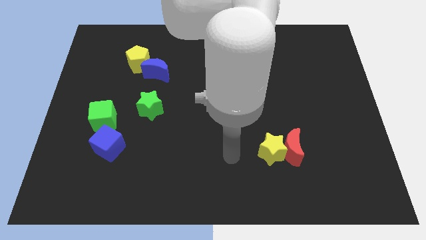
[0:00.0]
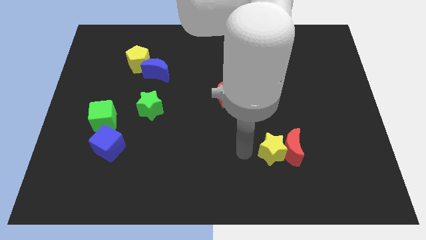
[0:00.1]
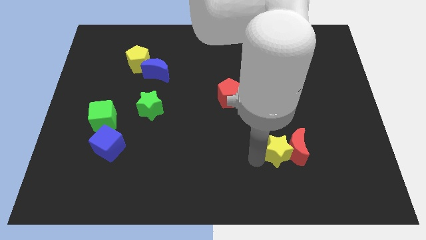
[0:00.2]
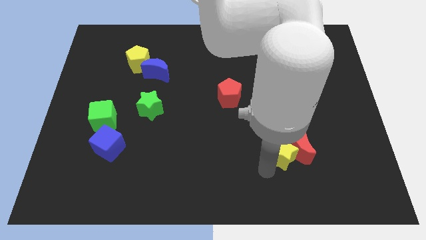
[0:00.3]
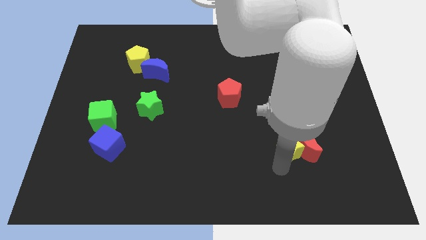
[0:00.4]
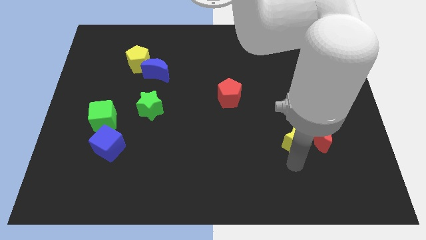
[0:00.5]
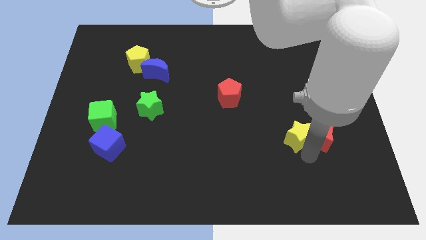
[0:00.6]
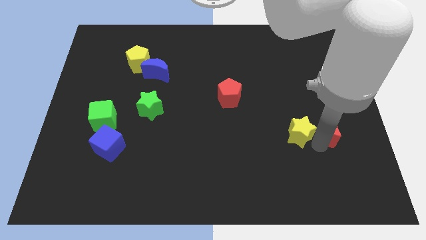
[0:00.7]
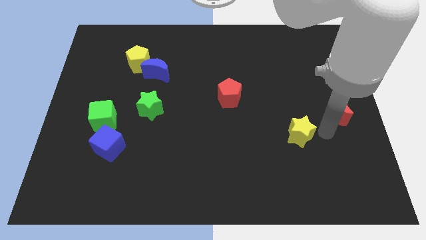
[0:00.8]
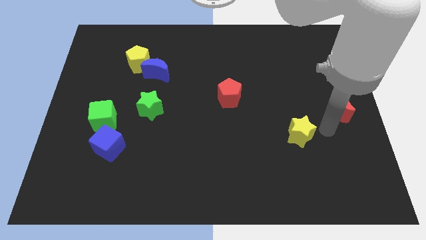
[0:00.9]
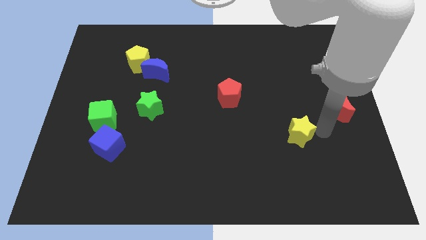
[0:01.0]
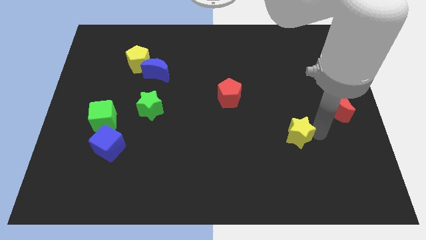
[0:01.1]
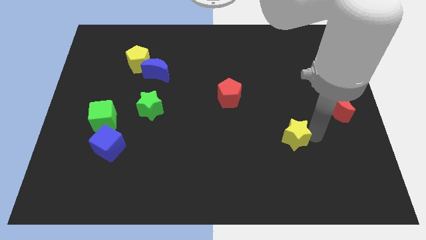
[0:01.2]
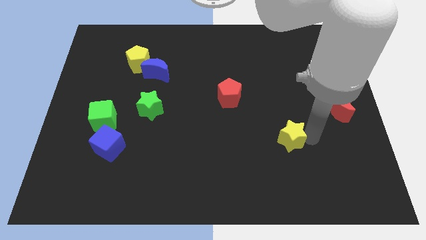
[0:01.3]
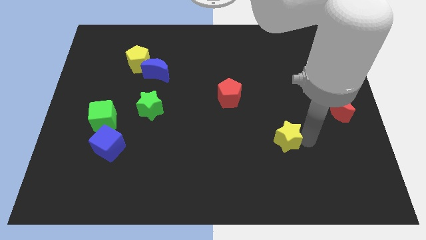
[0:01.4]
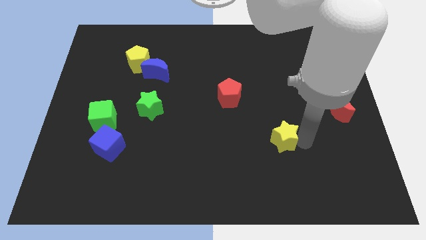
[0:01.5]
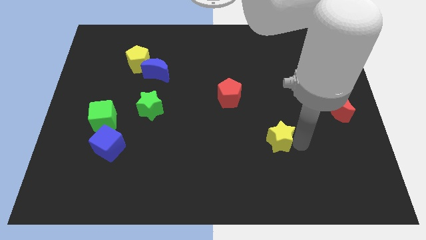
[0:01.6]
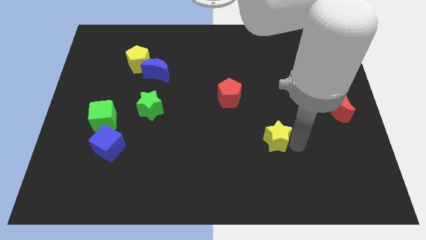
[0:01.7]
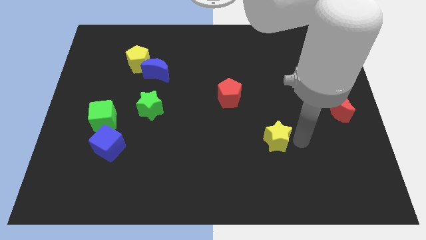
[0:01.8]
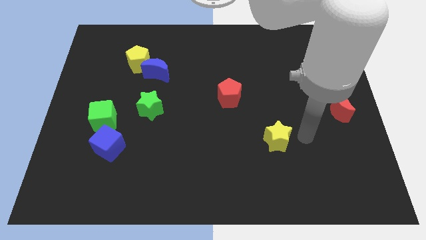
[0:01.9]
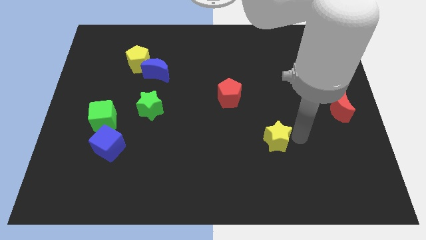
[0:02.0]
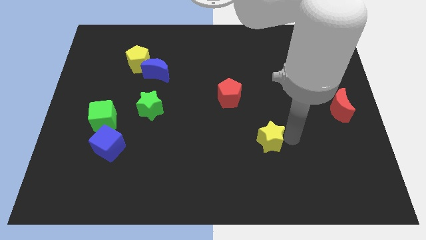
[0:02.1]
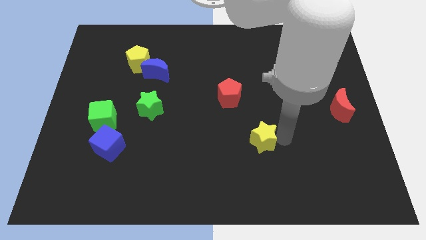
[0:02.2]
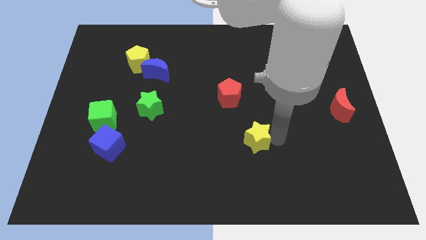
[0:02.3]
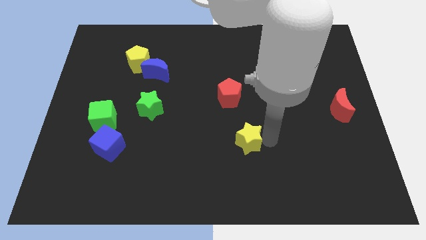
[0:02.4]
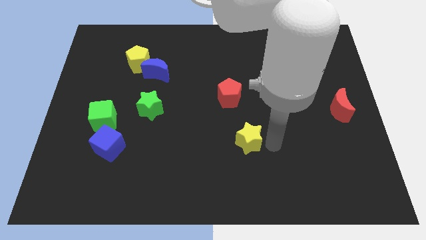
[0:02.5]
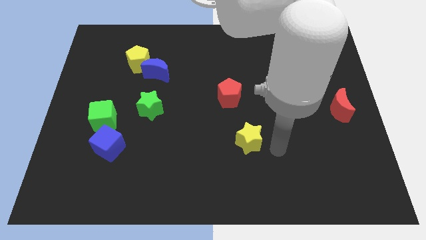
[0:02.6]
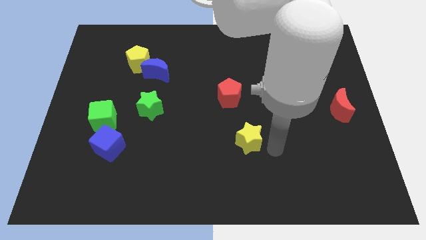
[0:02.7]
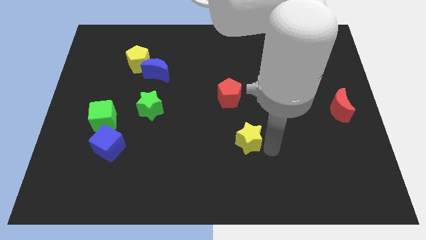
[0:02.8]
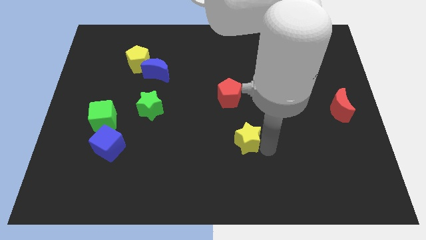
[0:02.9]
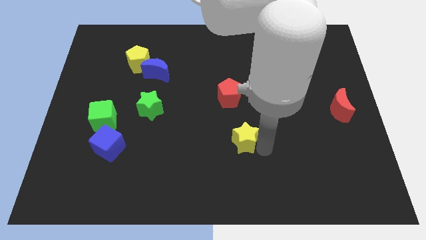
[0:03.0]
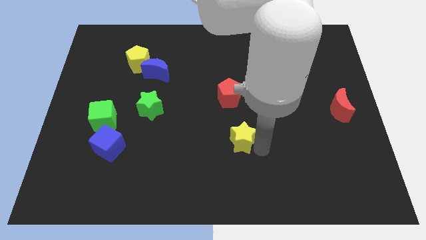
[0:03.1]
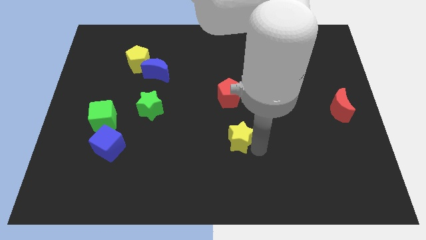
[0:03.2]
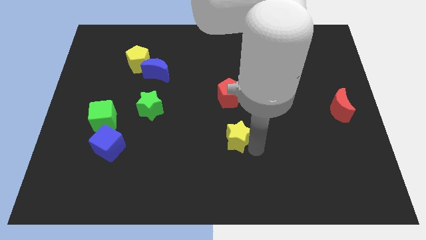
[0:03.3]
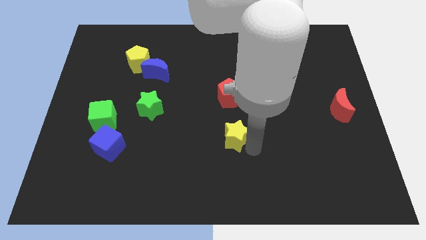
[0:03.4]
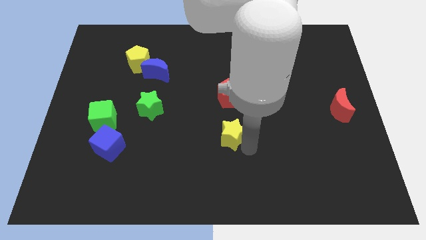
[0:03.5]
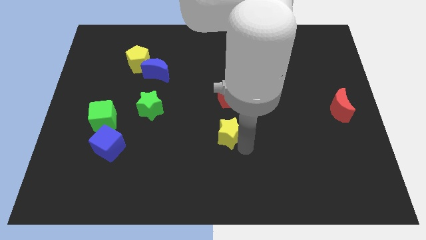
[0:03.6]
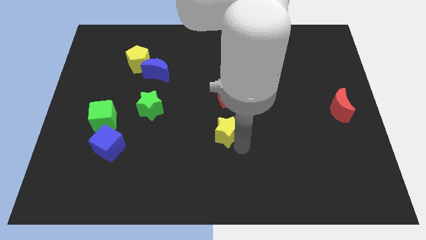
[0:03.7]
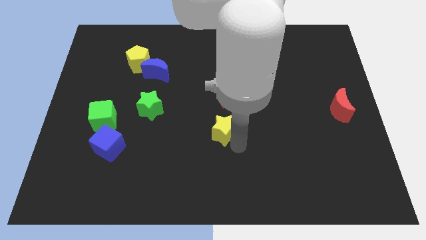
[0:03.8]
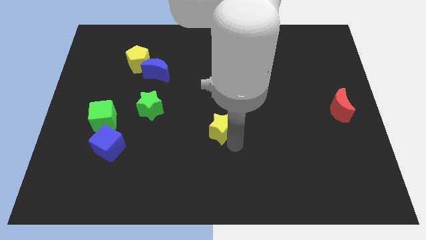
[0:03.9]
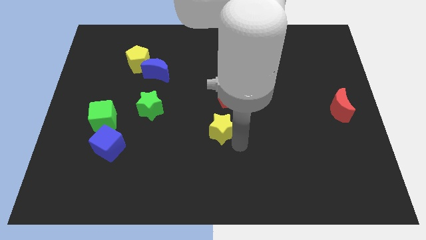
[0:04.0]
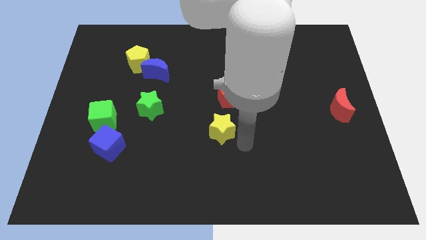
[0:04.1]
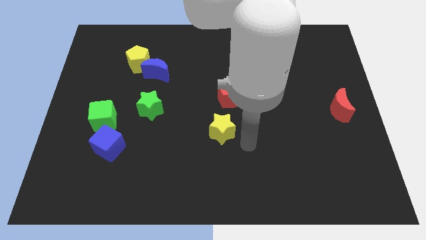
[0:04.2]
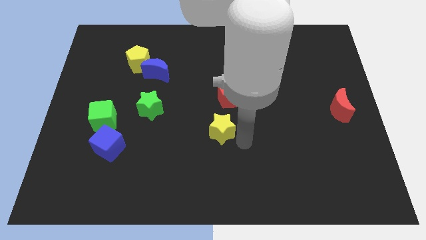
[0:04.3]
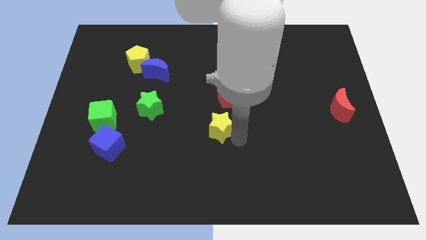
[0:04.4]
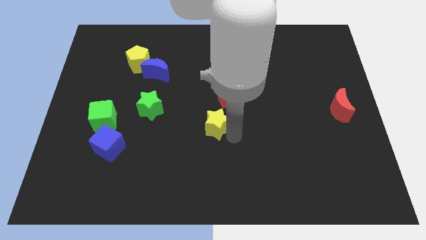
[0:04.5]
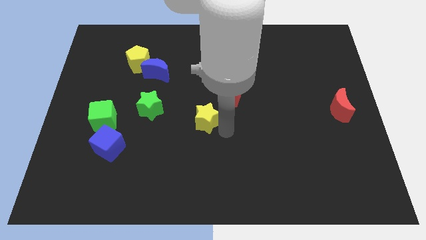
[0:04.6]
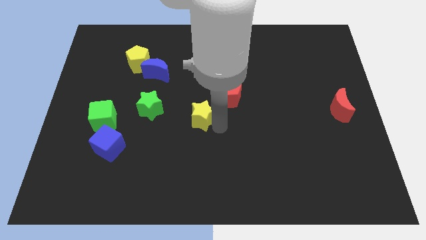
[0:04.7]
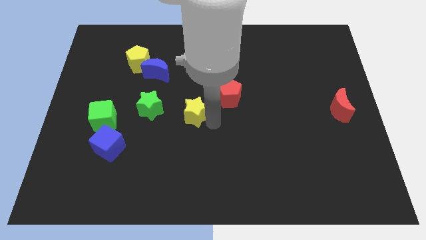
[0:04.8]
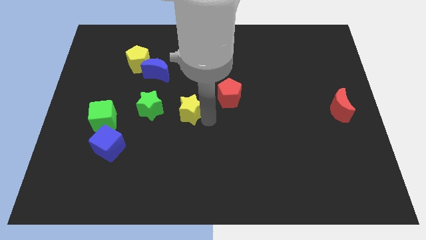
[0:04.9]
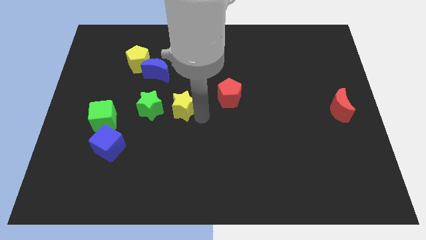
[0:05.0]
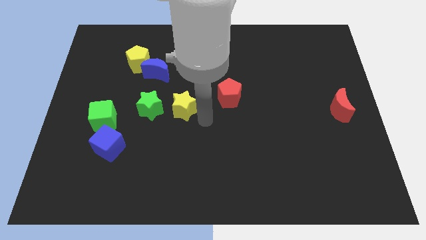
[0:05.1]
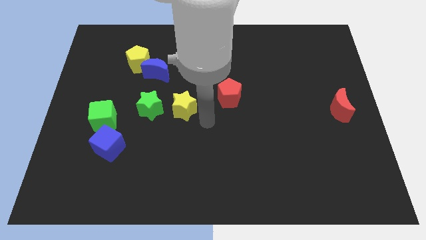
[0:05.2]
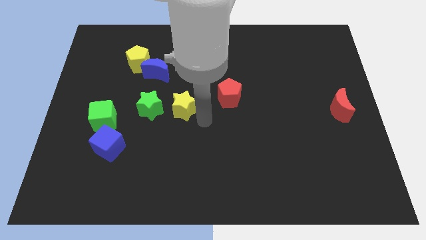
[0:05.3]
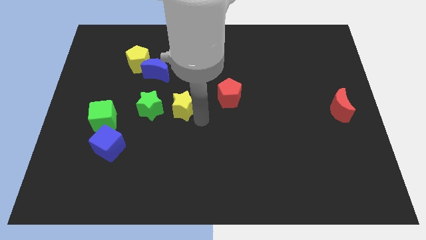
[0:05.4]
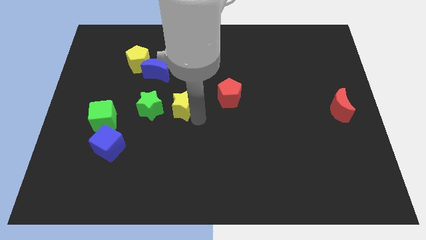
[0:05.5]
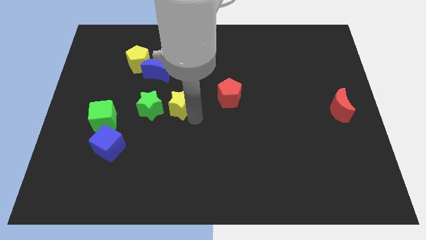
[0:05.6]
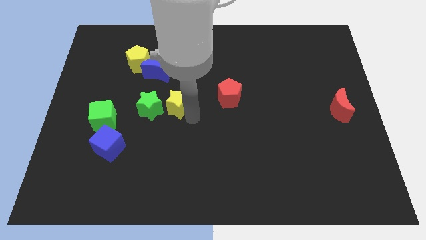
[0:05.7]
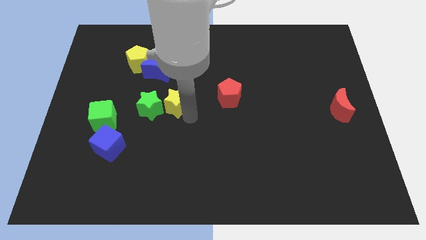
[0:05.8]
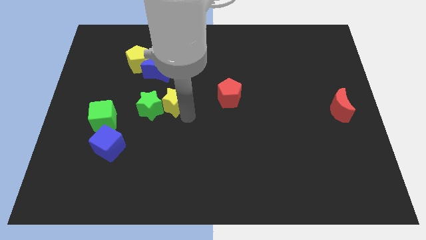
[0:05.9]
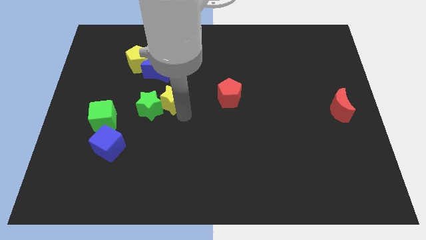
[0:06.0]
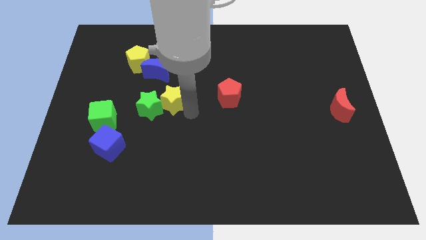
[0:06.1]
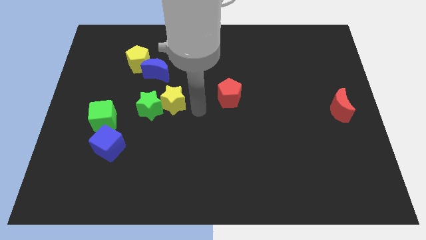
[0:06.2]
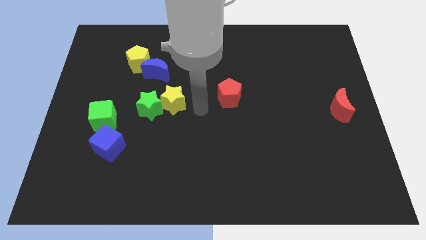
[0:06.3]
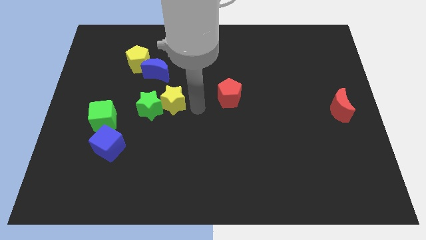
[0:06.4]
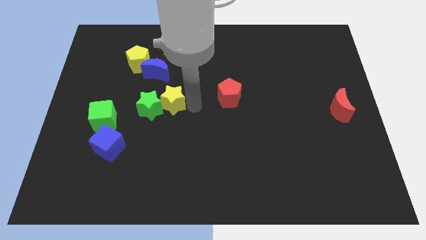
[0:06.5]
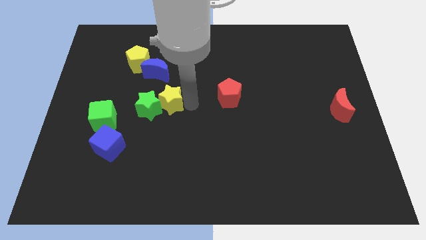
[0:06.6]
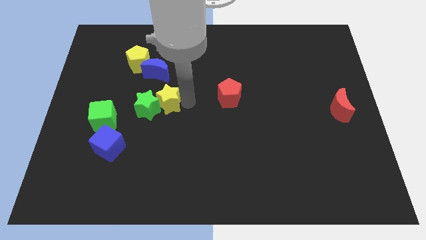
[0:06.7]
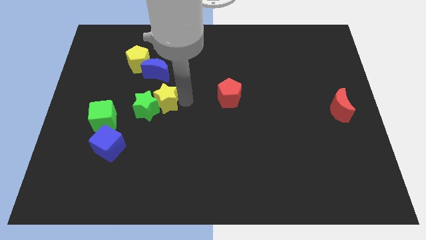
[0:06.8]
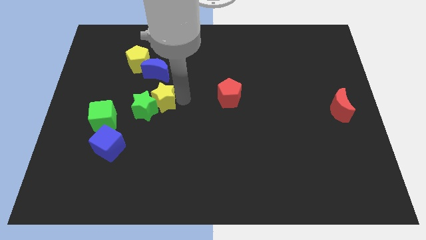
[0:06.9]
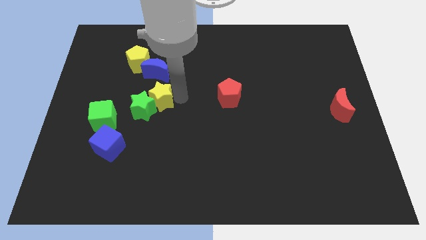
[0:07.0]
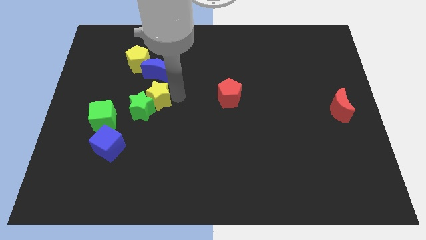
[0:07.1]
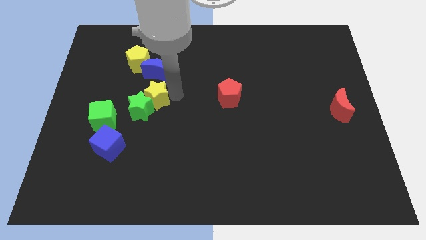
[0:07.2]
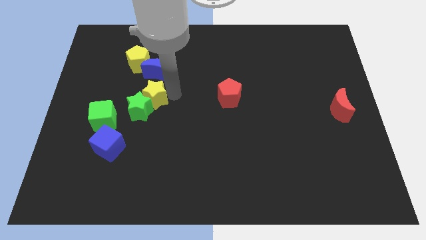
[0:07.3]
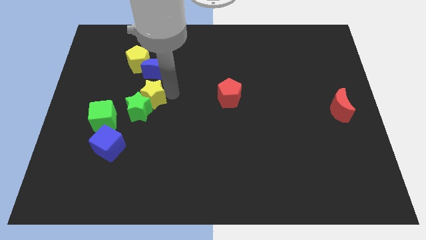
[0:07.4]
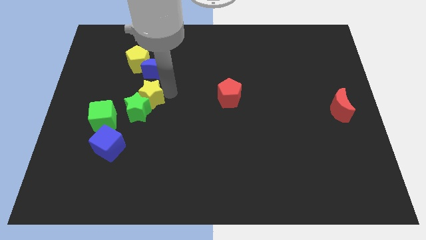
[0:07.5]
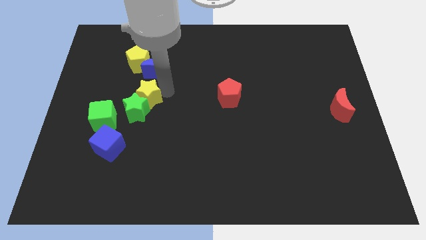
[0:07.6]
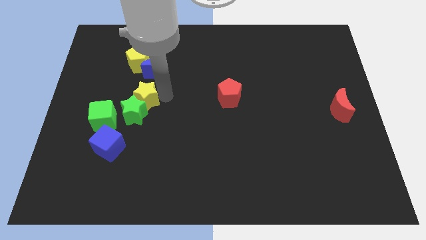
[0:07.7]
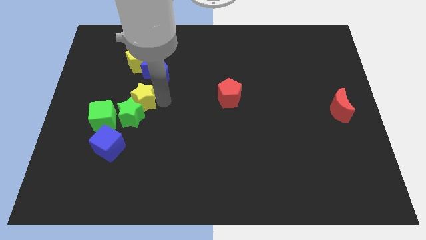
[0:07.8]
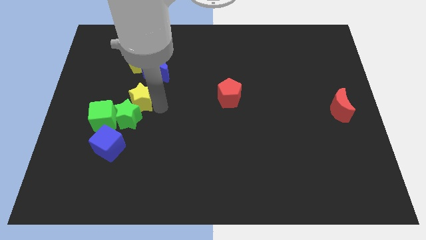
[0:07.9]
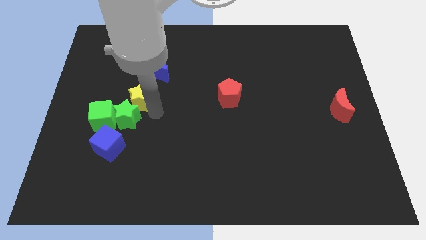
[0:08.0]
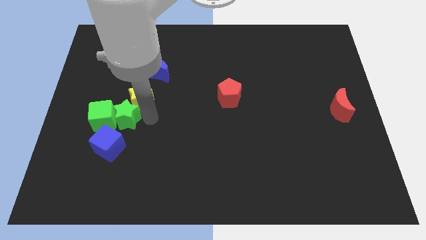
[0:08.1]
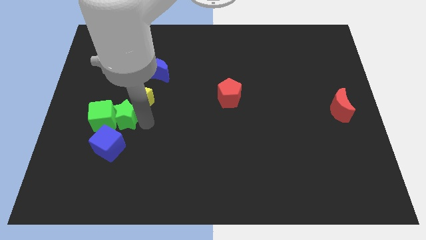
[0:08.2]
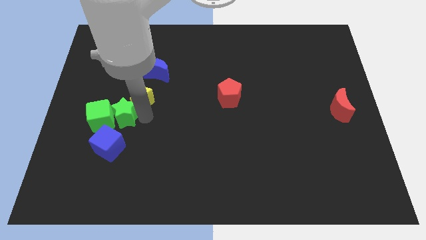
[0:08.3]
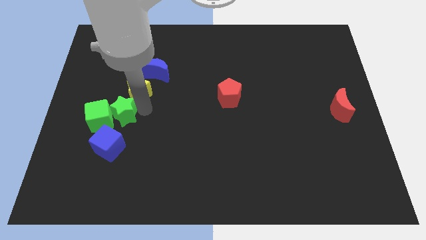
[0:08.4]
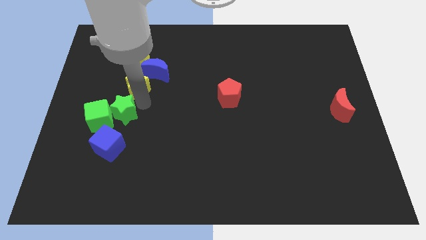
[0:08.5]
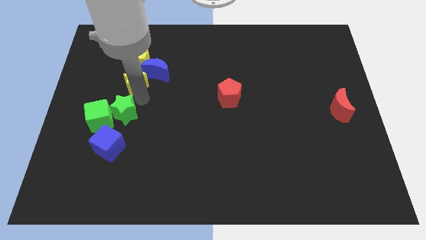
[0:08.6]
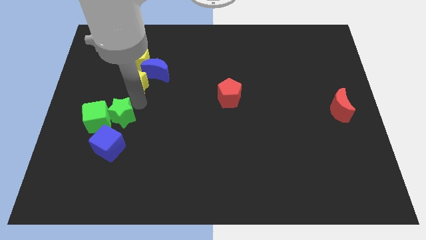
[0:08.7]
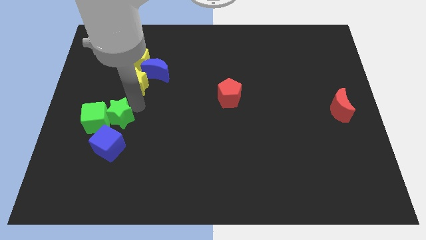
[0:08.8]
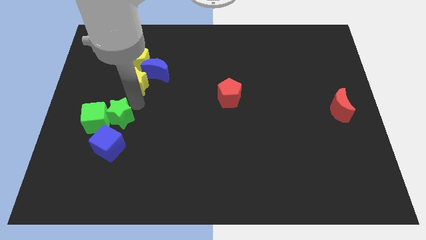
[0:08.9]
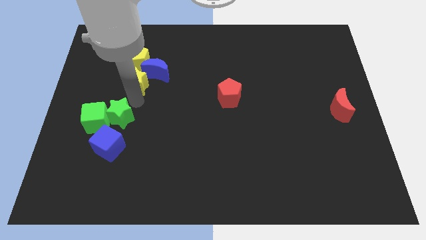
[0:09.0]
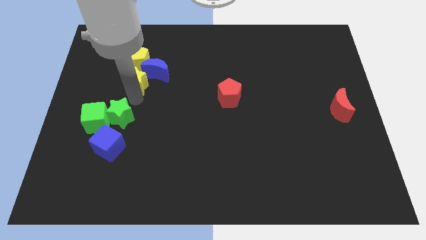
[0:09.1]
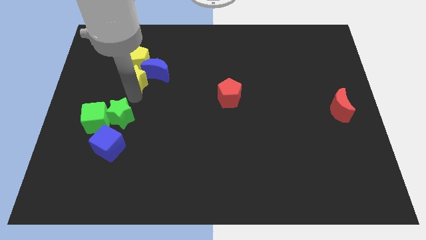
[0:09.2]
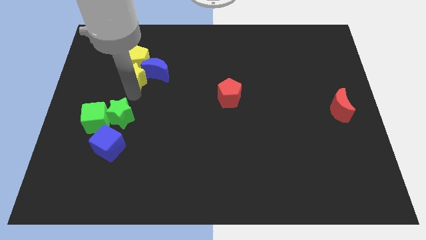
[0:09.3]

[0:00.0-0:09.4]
move the yellow star towards the yellow pentagon
